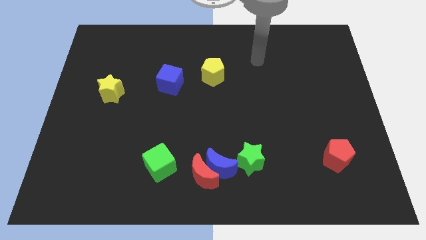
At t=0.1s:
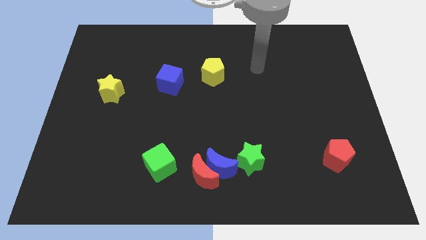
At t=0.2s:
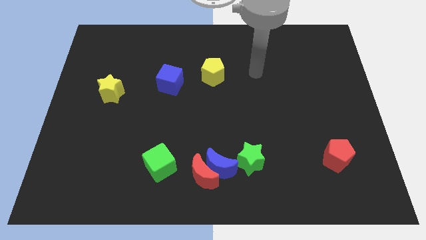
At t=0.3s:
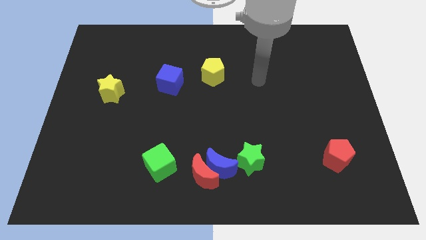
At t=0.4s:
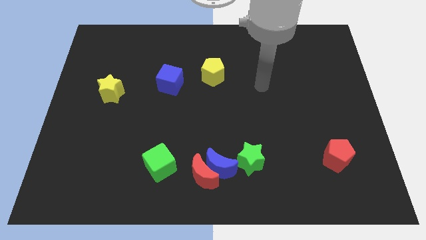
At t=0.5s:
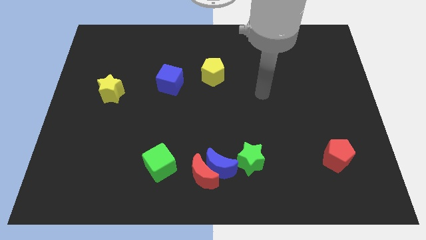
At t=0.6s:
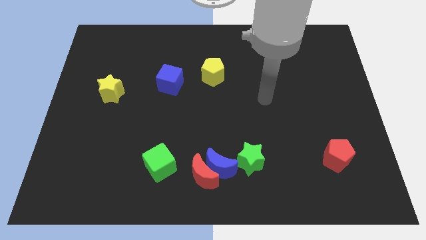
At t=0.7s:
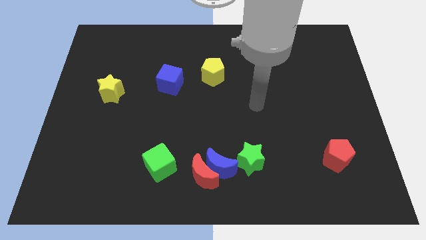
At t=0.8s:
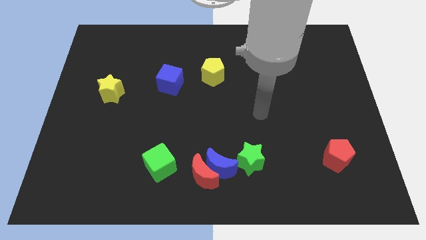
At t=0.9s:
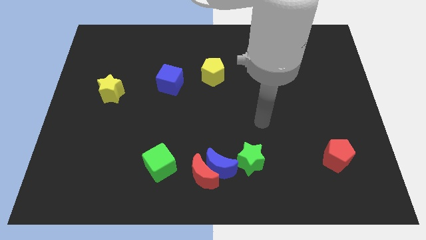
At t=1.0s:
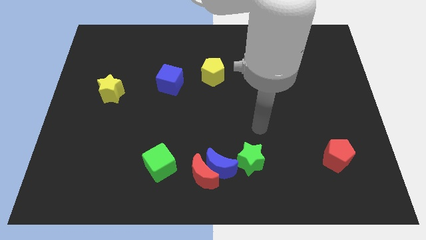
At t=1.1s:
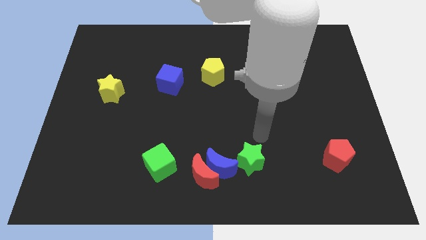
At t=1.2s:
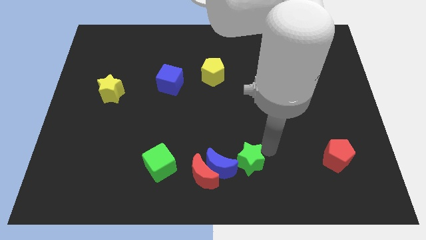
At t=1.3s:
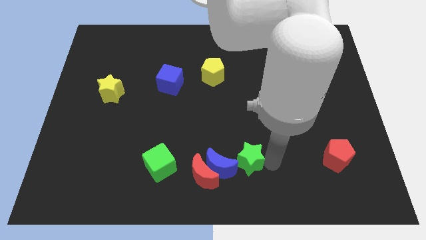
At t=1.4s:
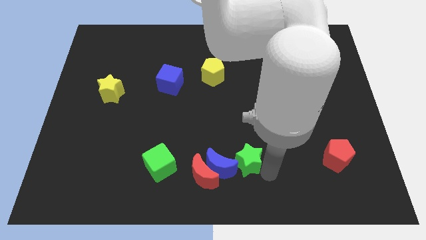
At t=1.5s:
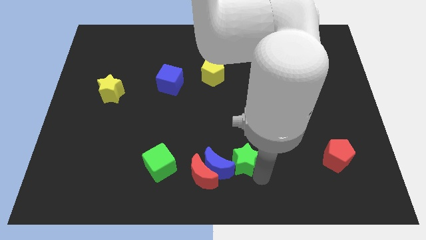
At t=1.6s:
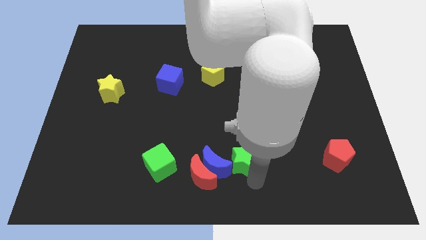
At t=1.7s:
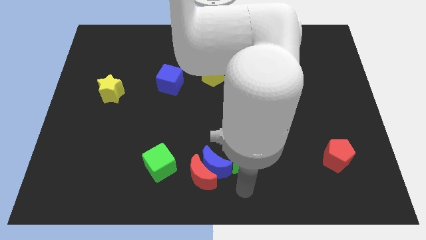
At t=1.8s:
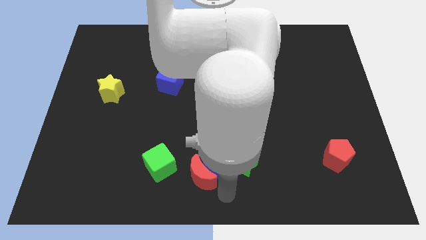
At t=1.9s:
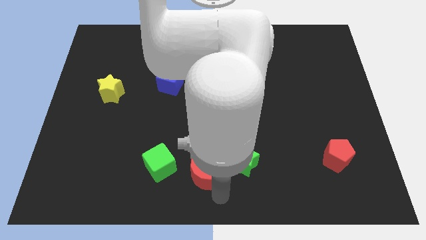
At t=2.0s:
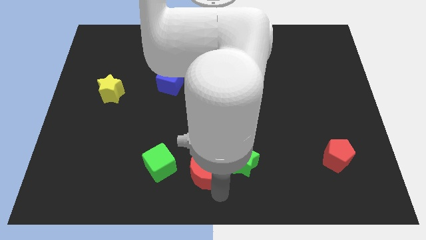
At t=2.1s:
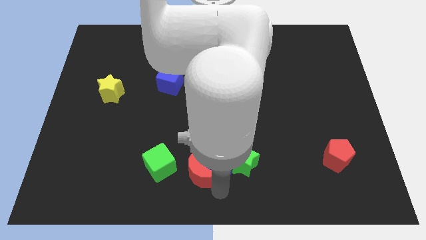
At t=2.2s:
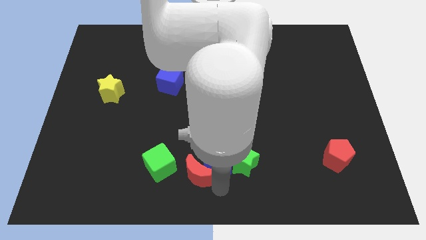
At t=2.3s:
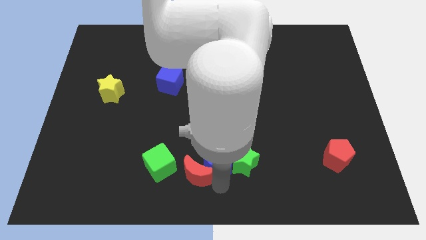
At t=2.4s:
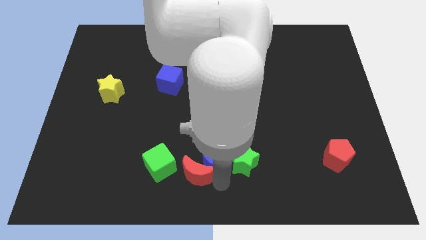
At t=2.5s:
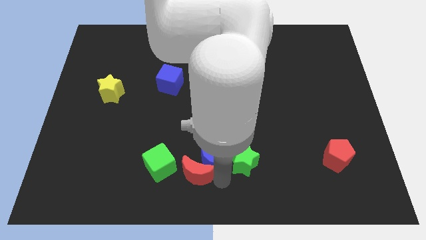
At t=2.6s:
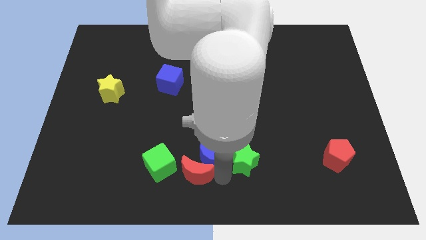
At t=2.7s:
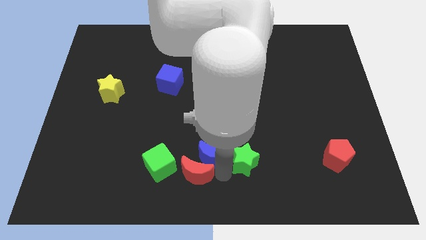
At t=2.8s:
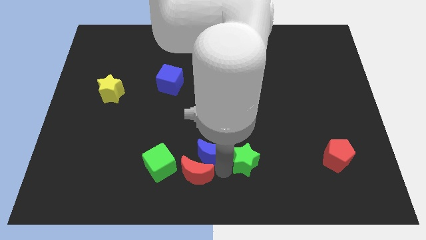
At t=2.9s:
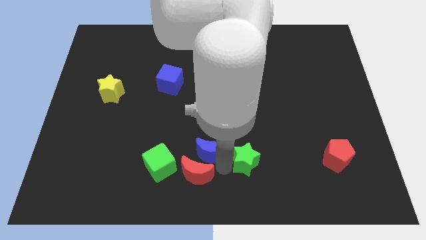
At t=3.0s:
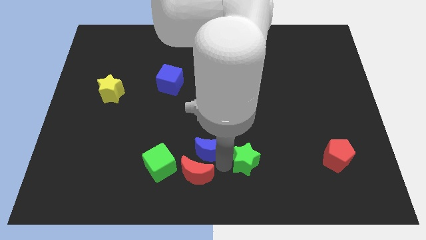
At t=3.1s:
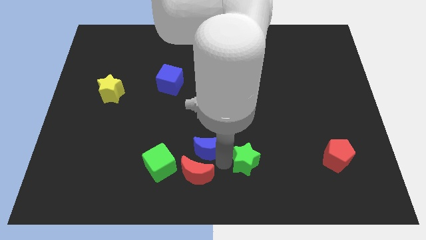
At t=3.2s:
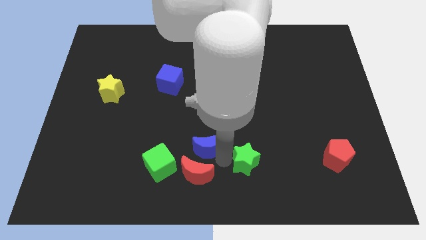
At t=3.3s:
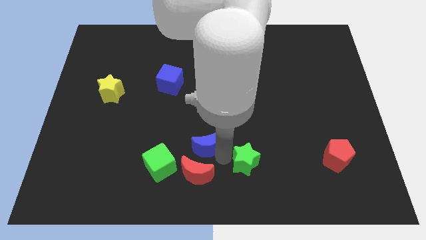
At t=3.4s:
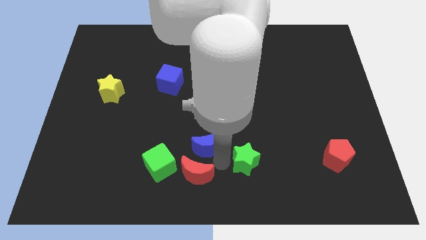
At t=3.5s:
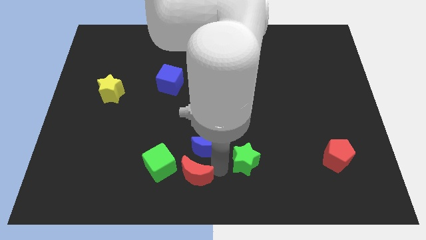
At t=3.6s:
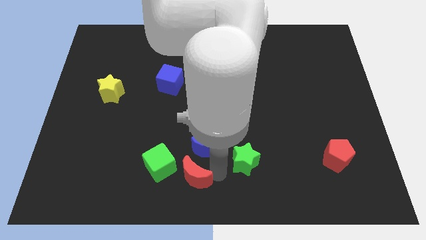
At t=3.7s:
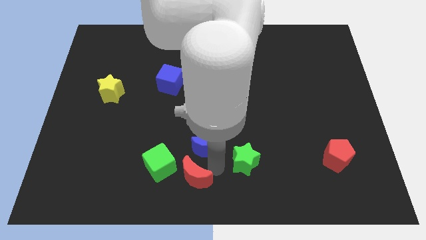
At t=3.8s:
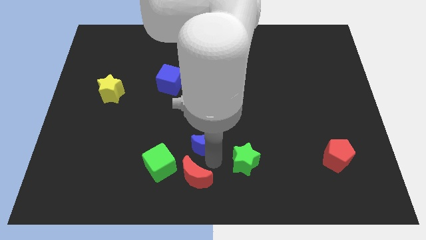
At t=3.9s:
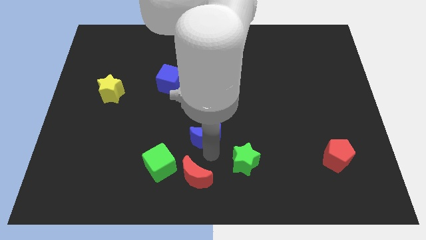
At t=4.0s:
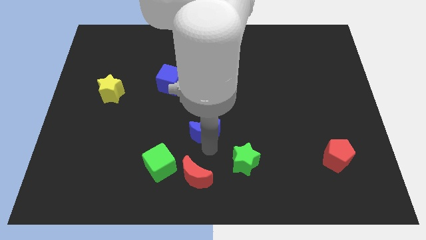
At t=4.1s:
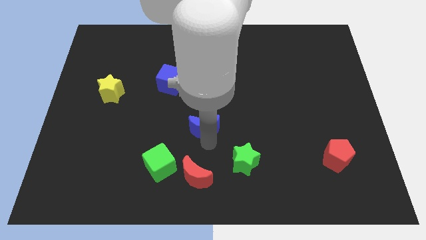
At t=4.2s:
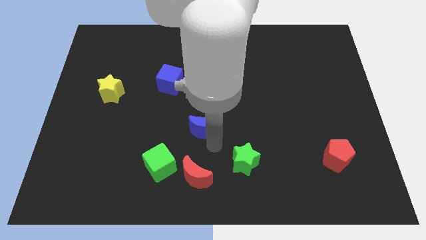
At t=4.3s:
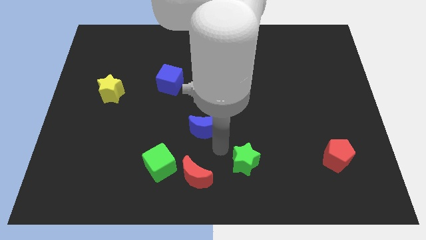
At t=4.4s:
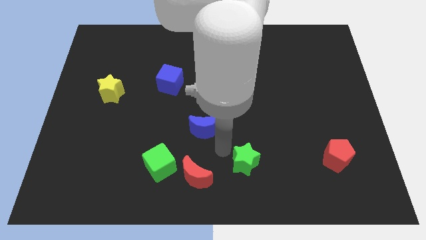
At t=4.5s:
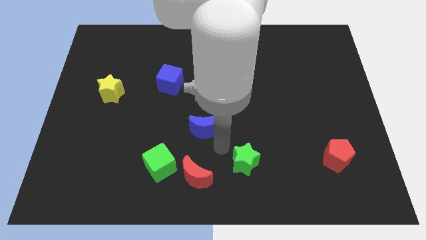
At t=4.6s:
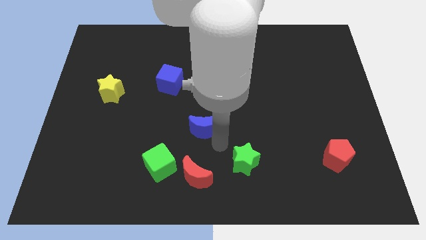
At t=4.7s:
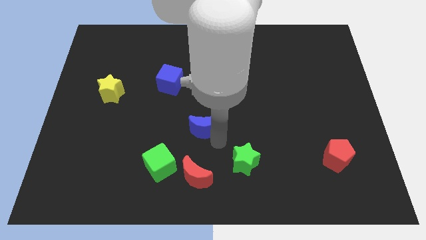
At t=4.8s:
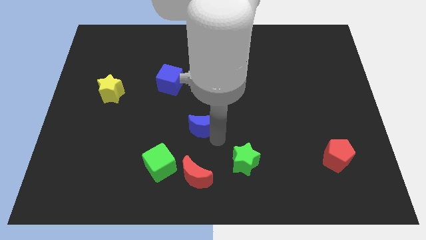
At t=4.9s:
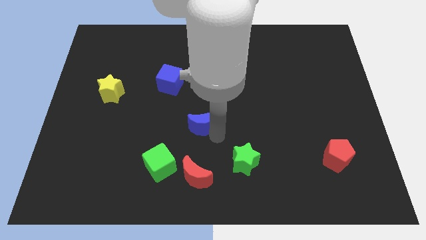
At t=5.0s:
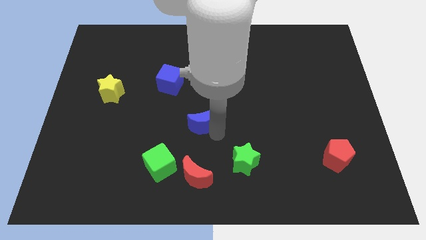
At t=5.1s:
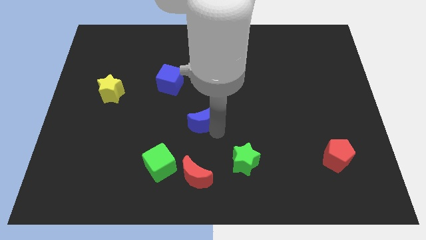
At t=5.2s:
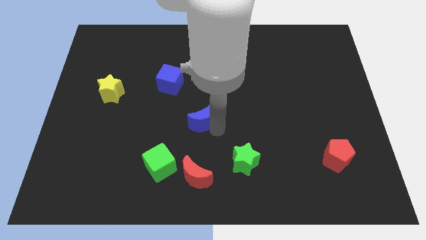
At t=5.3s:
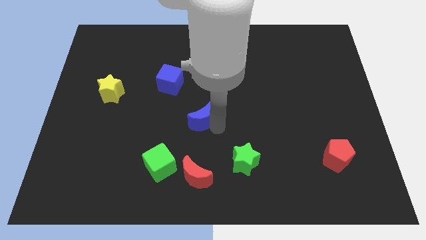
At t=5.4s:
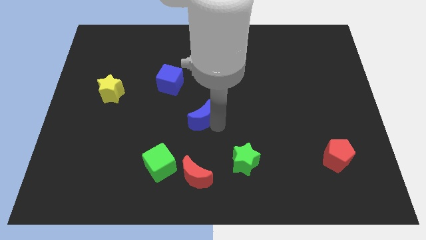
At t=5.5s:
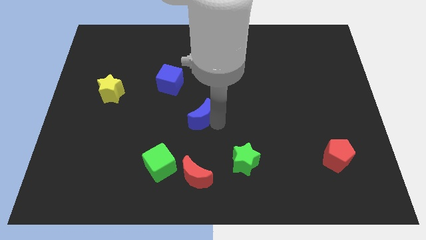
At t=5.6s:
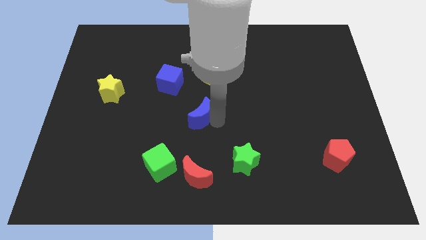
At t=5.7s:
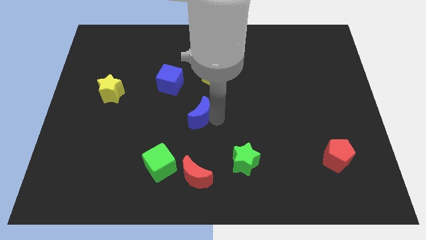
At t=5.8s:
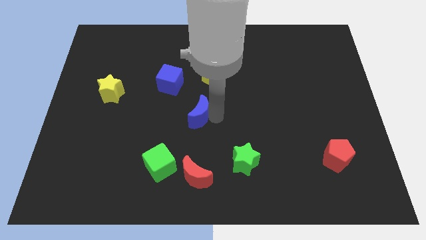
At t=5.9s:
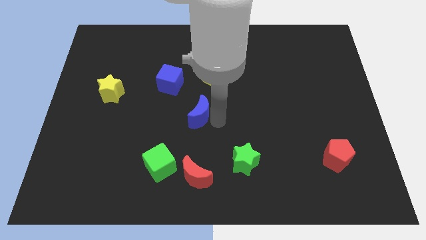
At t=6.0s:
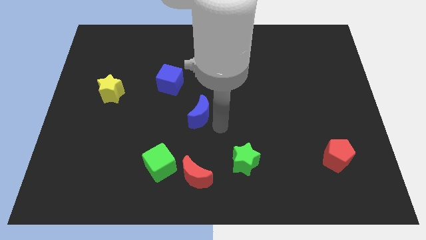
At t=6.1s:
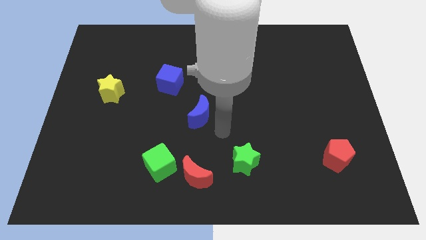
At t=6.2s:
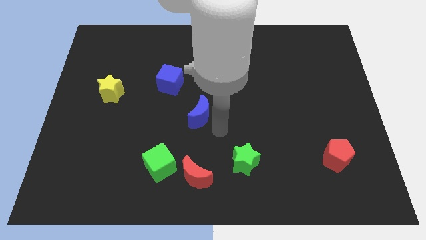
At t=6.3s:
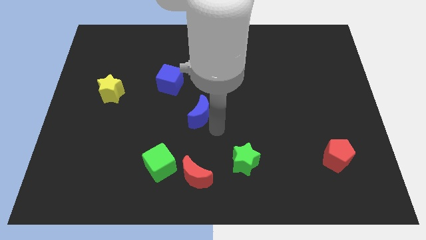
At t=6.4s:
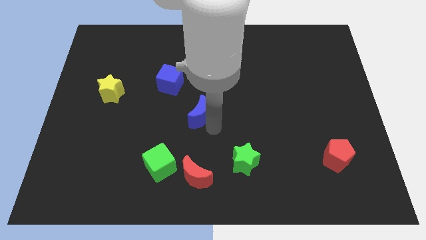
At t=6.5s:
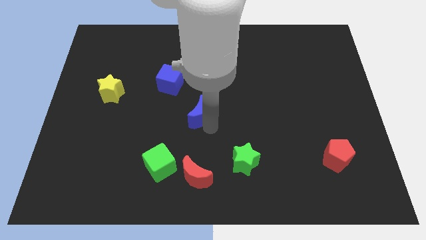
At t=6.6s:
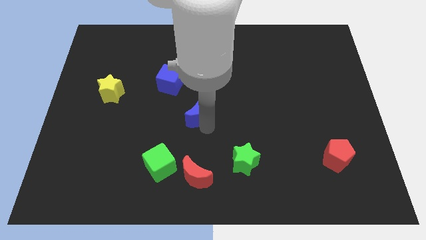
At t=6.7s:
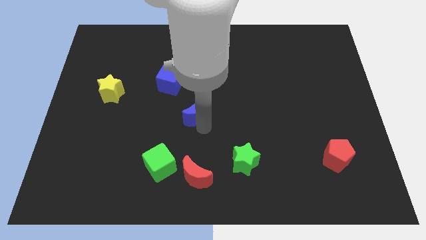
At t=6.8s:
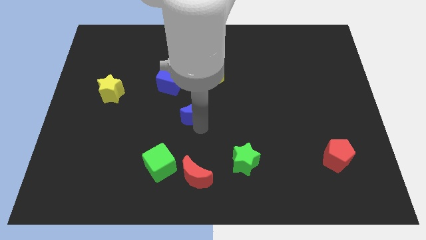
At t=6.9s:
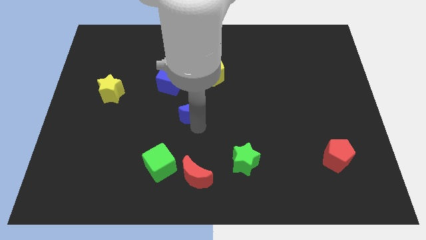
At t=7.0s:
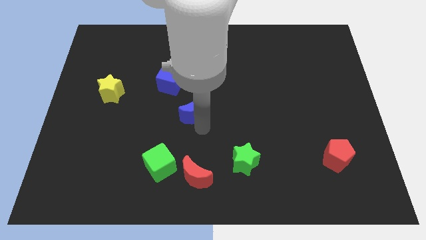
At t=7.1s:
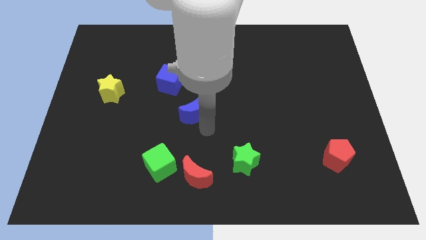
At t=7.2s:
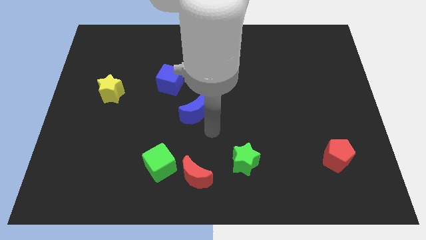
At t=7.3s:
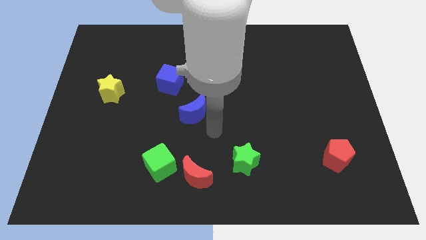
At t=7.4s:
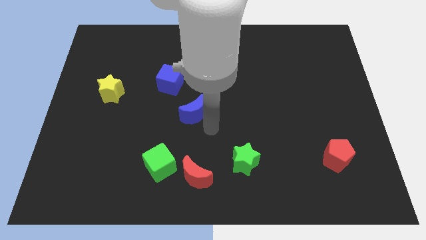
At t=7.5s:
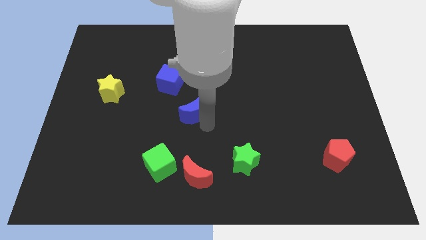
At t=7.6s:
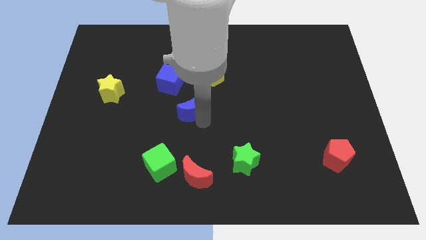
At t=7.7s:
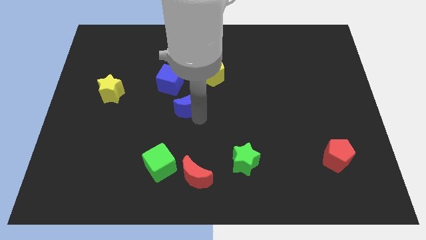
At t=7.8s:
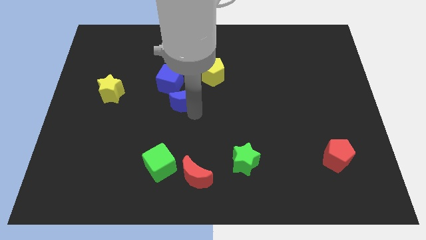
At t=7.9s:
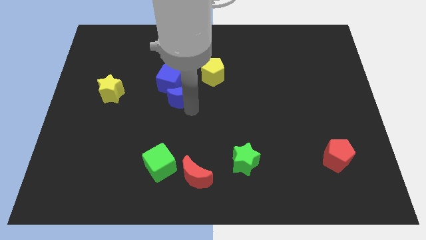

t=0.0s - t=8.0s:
push the blue moon close to the blue cube
